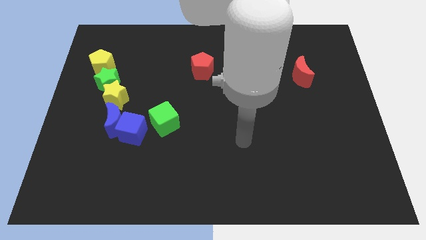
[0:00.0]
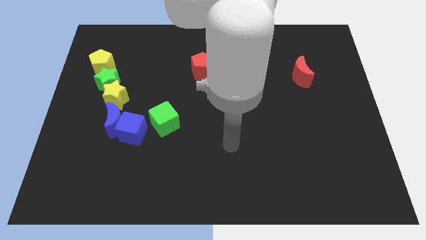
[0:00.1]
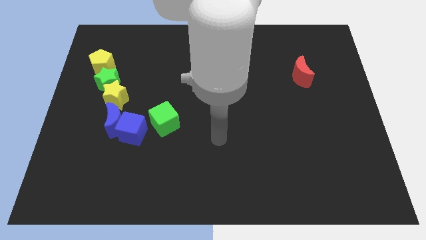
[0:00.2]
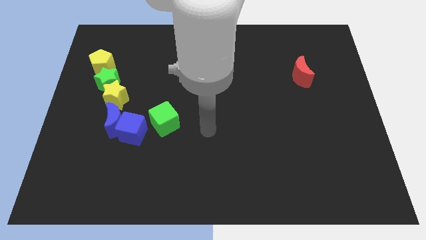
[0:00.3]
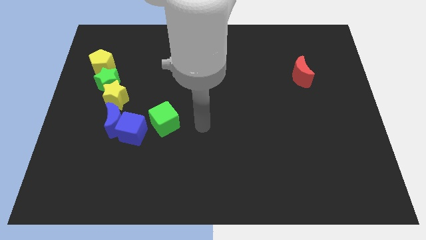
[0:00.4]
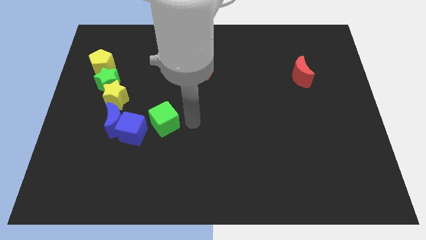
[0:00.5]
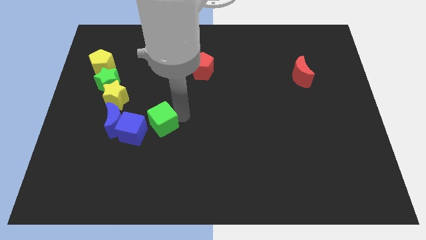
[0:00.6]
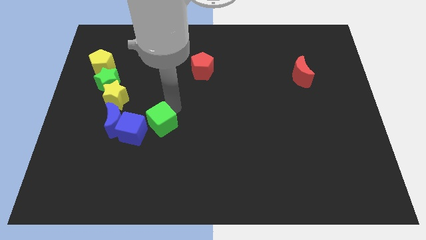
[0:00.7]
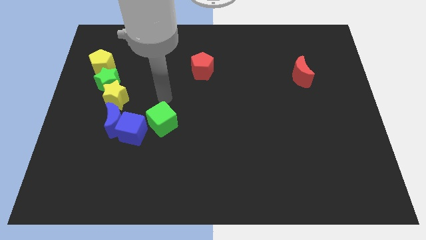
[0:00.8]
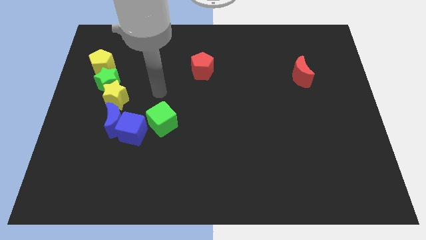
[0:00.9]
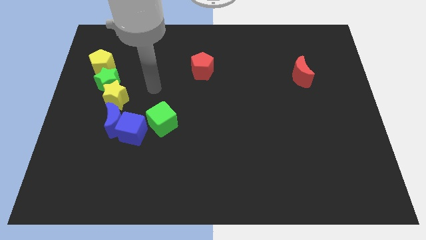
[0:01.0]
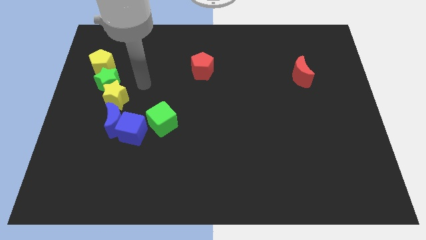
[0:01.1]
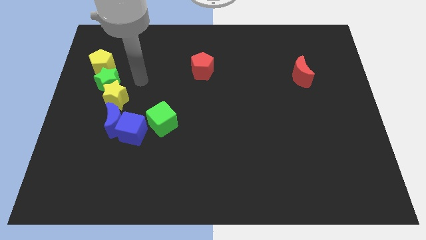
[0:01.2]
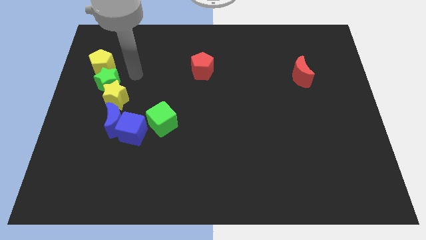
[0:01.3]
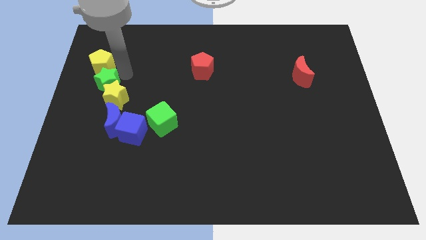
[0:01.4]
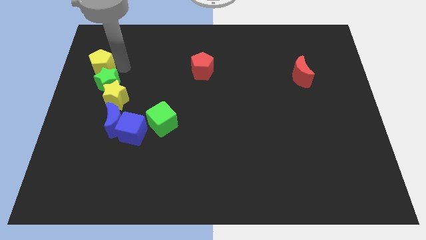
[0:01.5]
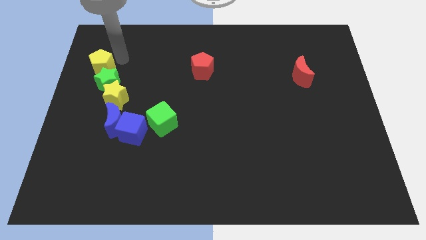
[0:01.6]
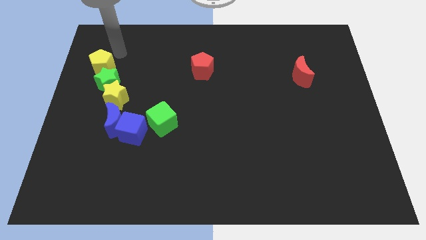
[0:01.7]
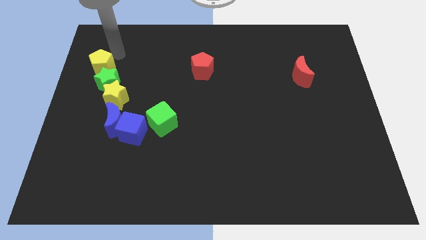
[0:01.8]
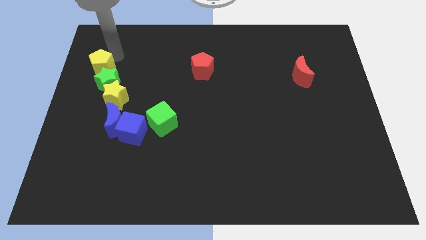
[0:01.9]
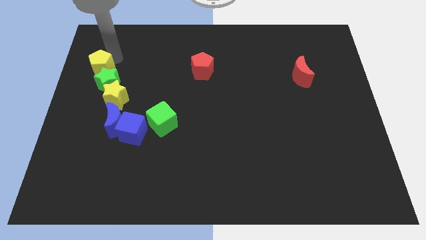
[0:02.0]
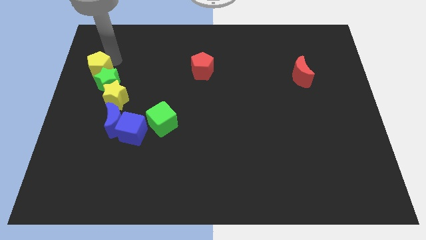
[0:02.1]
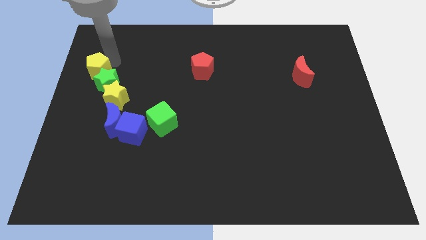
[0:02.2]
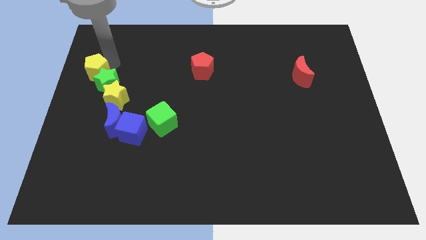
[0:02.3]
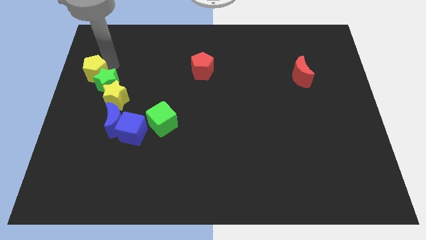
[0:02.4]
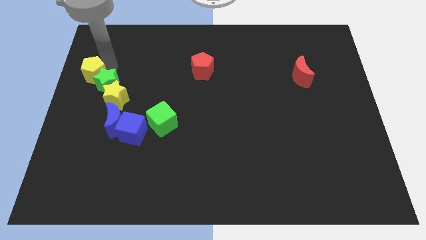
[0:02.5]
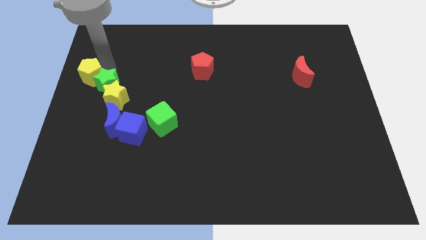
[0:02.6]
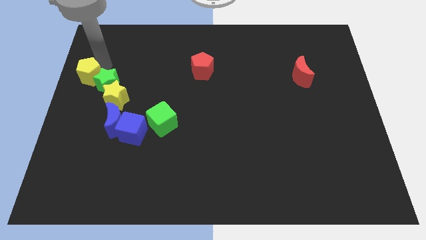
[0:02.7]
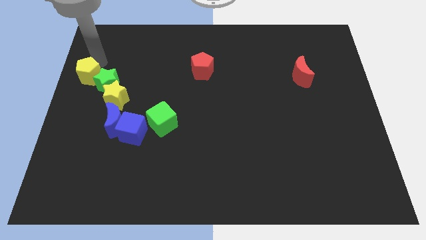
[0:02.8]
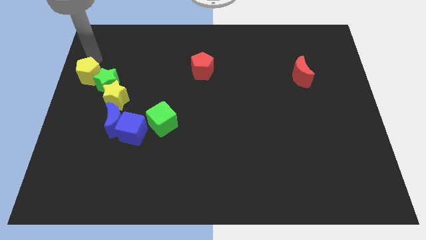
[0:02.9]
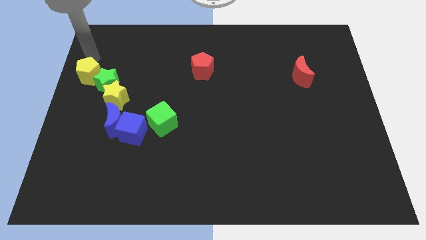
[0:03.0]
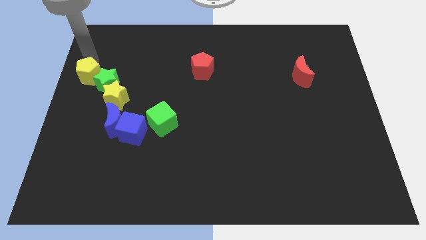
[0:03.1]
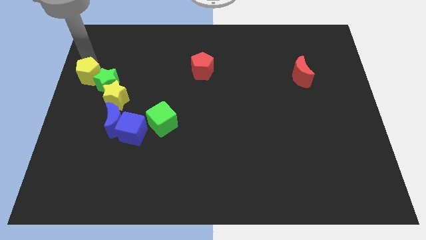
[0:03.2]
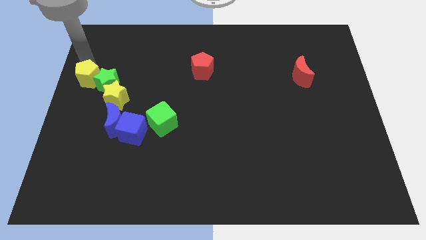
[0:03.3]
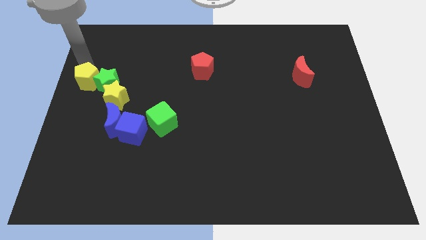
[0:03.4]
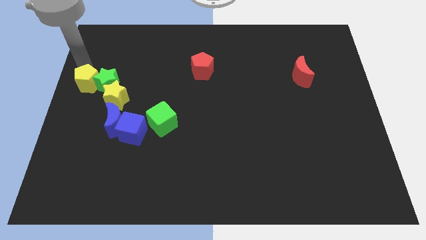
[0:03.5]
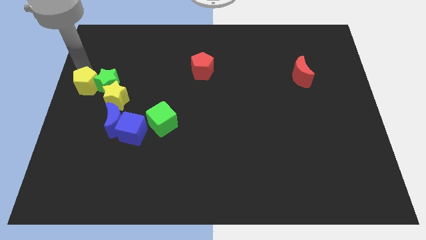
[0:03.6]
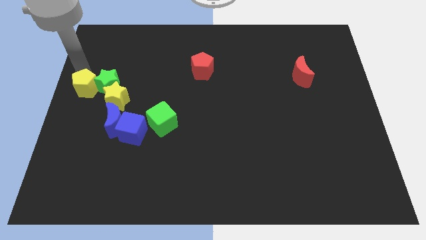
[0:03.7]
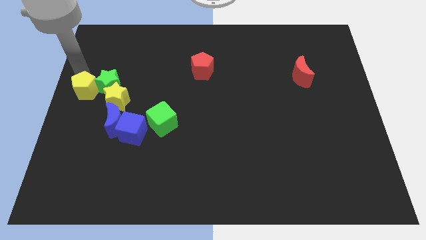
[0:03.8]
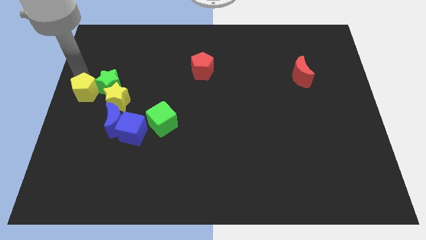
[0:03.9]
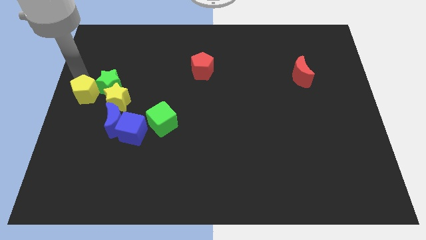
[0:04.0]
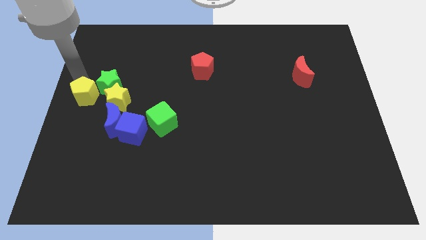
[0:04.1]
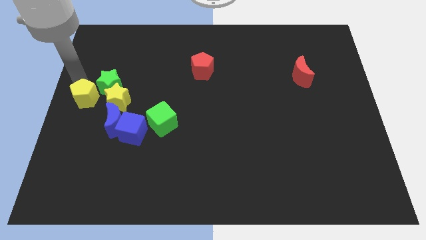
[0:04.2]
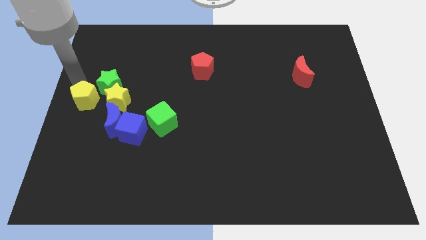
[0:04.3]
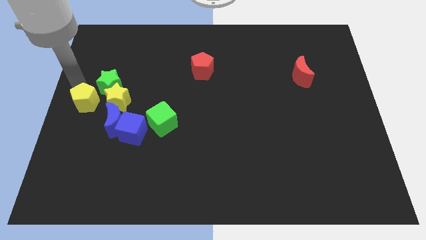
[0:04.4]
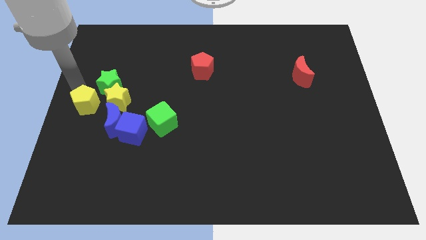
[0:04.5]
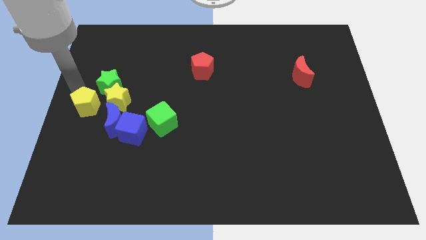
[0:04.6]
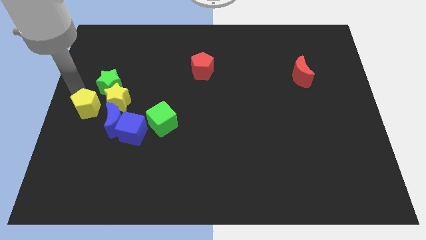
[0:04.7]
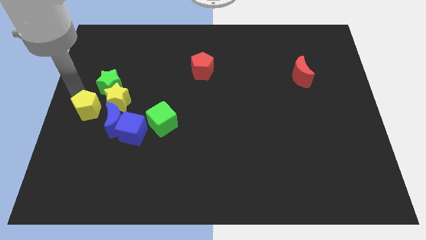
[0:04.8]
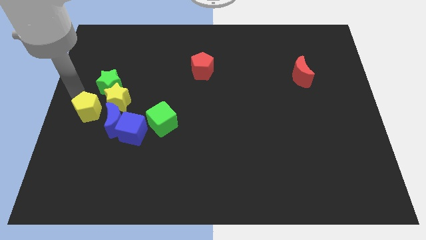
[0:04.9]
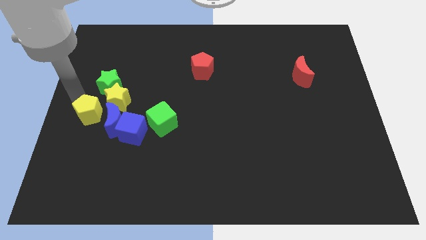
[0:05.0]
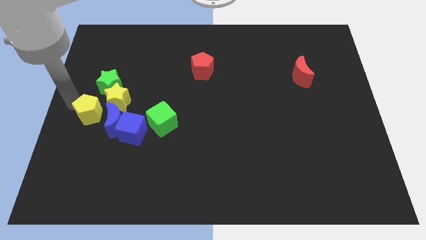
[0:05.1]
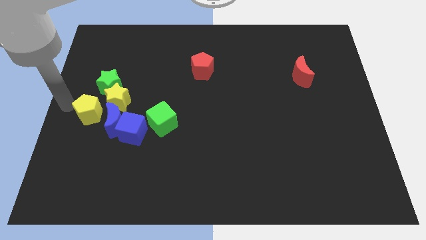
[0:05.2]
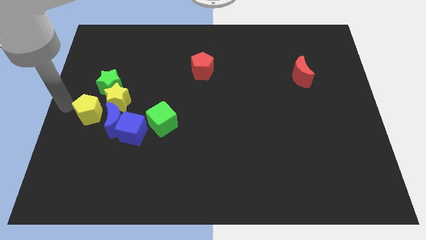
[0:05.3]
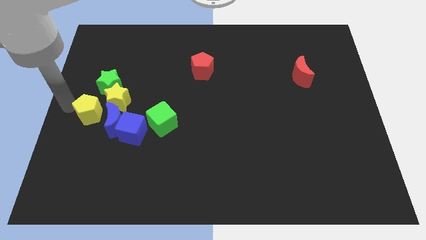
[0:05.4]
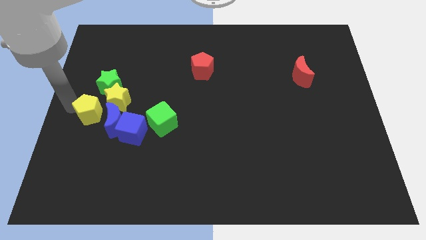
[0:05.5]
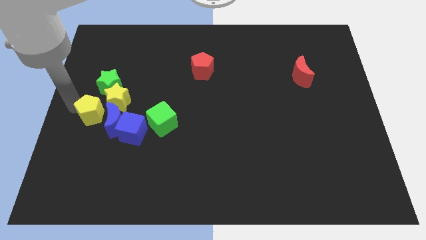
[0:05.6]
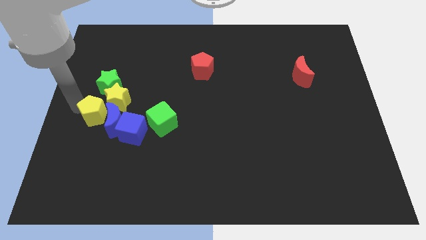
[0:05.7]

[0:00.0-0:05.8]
put the yellow pentagon left of the green cube
